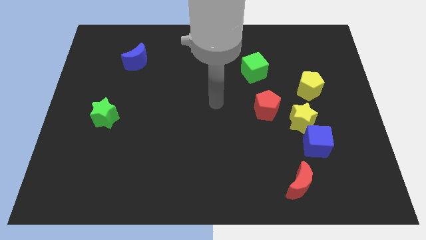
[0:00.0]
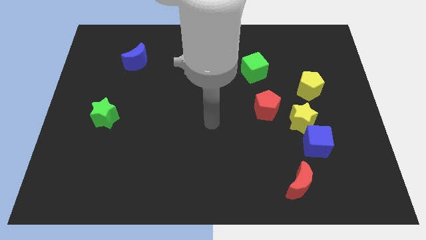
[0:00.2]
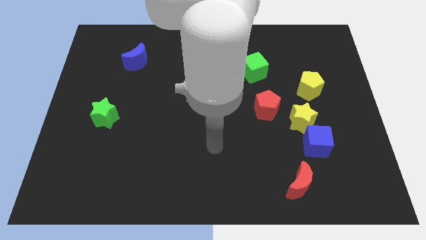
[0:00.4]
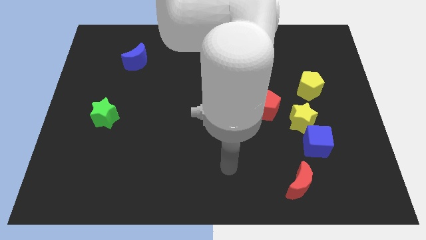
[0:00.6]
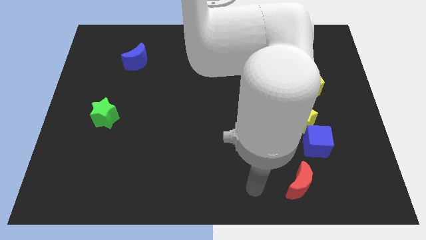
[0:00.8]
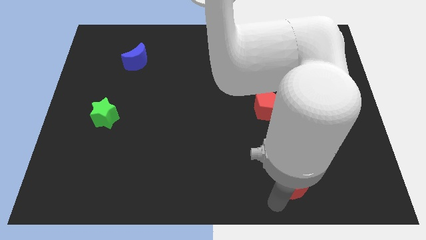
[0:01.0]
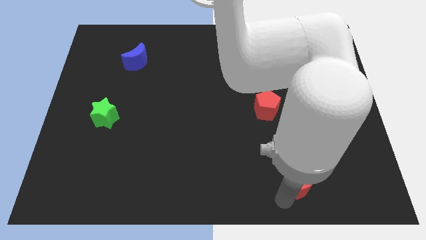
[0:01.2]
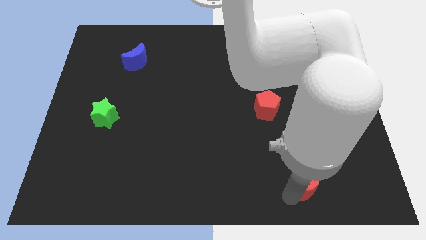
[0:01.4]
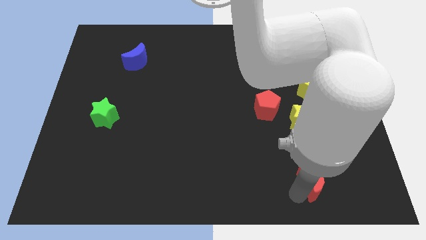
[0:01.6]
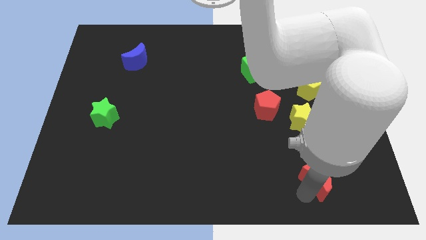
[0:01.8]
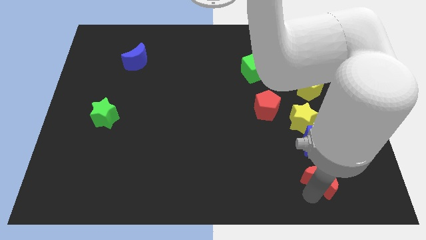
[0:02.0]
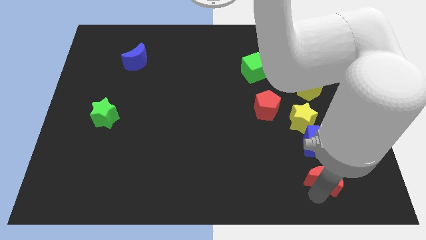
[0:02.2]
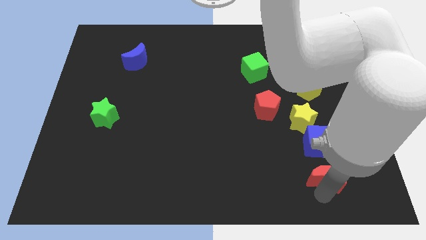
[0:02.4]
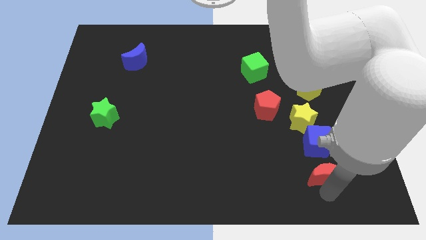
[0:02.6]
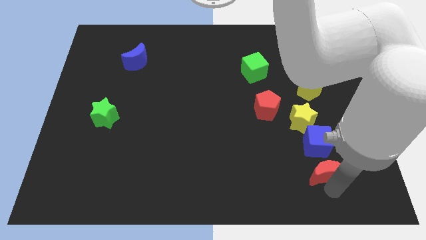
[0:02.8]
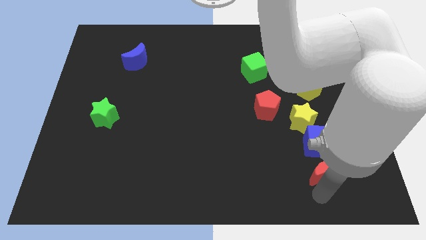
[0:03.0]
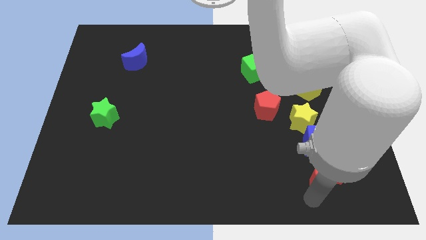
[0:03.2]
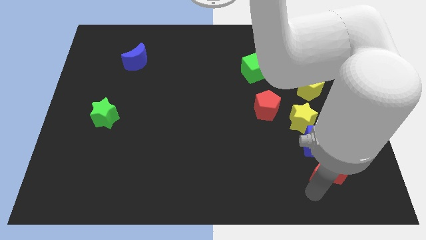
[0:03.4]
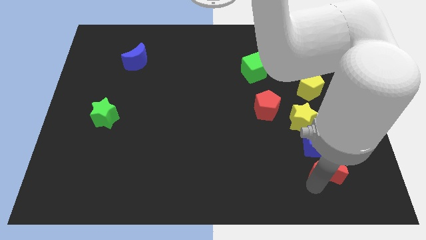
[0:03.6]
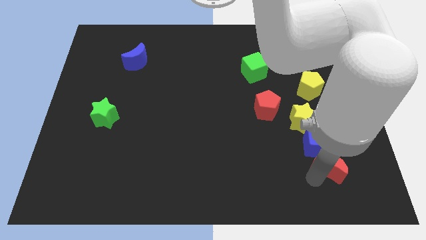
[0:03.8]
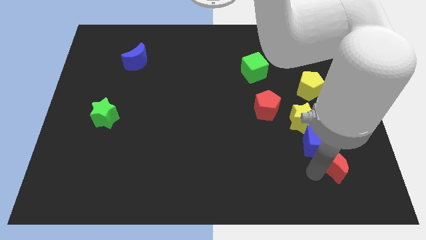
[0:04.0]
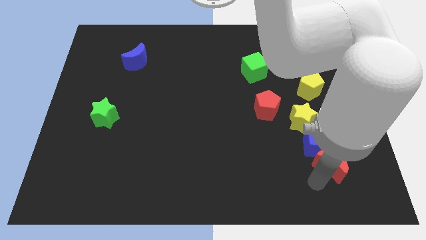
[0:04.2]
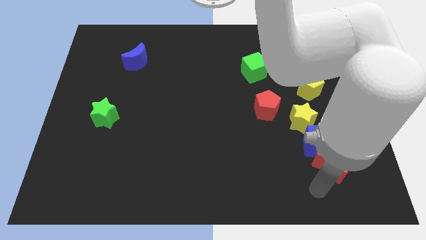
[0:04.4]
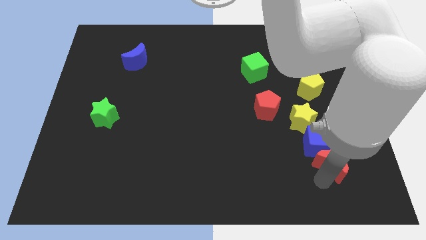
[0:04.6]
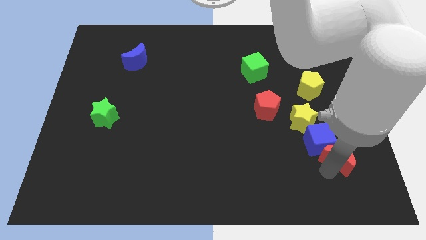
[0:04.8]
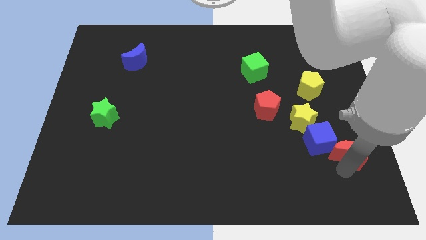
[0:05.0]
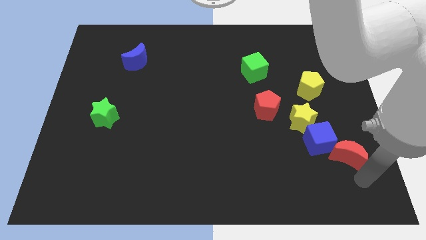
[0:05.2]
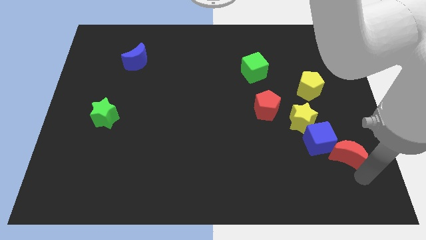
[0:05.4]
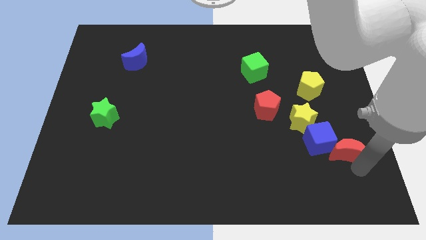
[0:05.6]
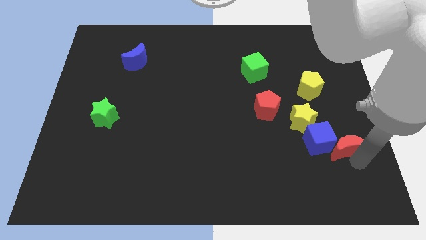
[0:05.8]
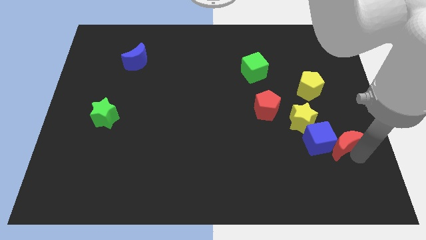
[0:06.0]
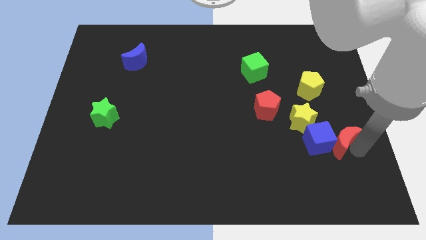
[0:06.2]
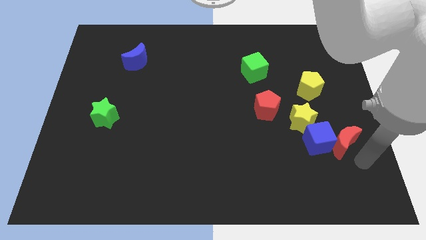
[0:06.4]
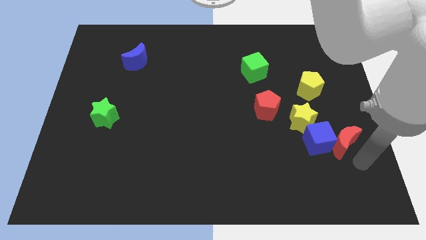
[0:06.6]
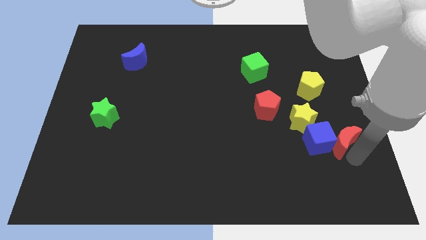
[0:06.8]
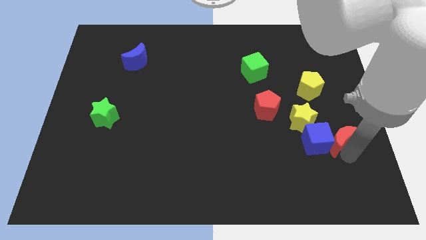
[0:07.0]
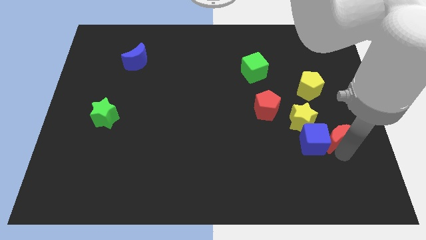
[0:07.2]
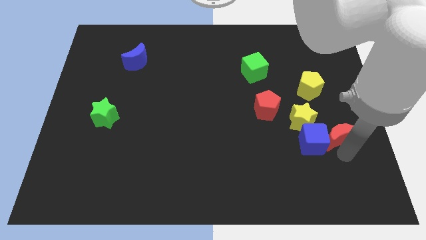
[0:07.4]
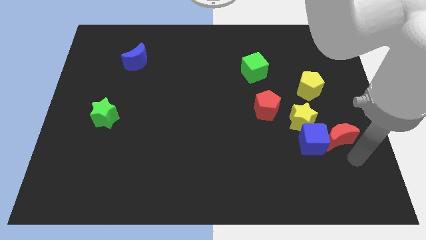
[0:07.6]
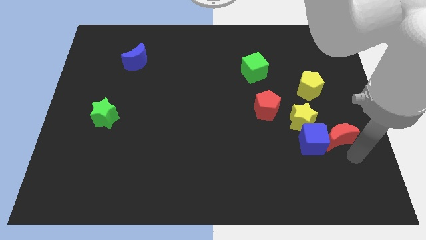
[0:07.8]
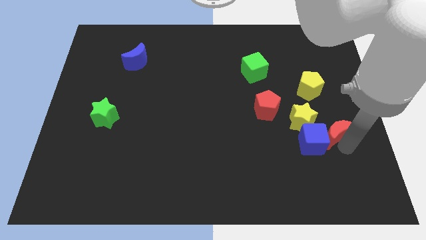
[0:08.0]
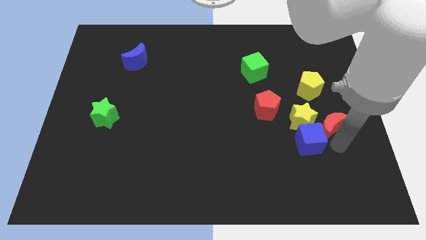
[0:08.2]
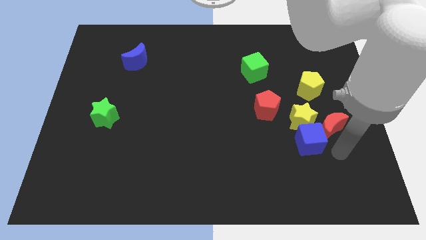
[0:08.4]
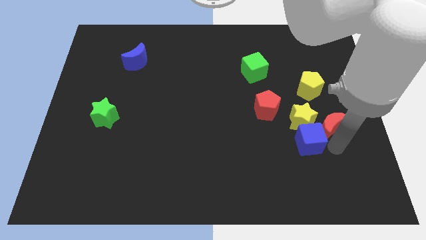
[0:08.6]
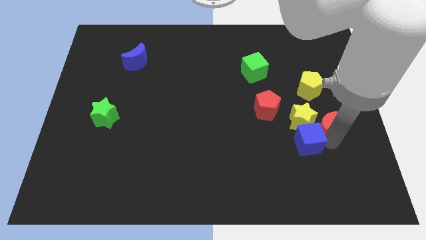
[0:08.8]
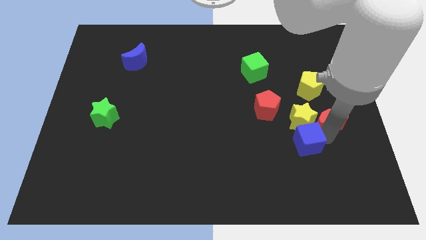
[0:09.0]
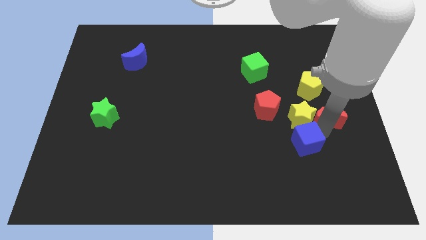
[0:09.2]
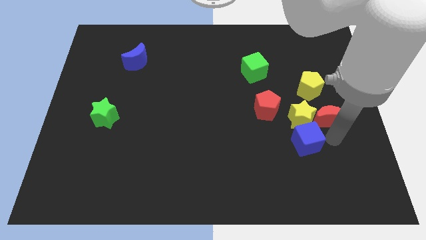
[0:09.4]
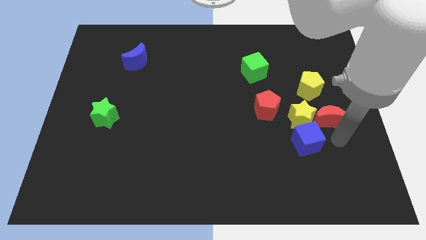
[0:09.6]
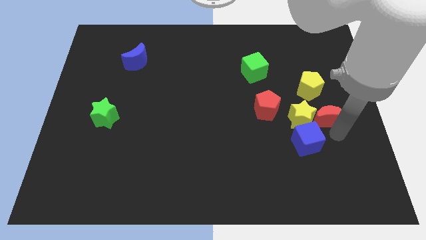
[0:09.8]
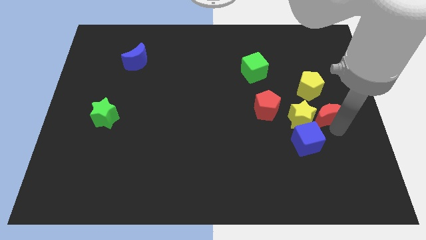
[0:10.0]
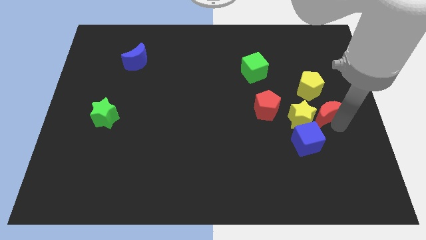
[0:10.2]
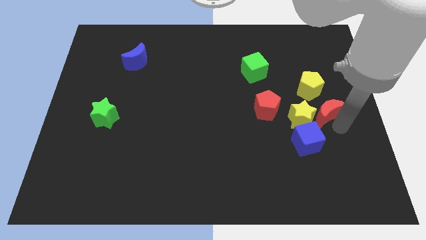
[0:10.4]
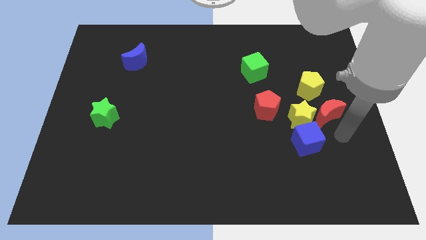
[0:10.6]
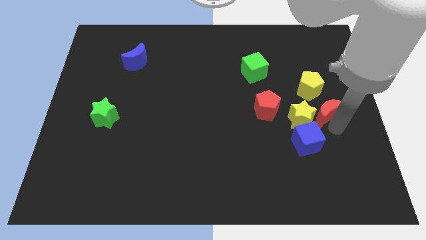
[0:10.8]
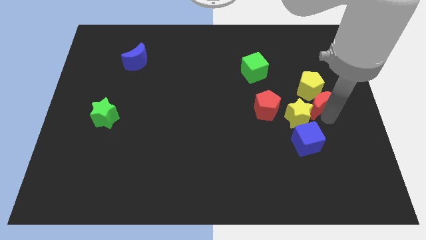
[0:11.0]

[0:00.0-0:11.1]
move the red moon next to the yellow pentagon

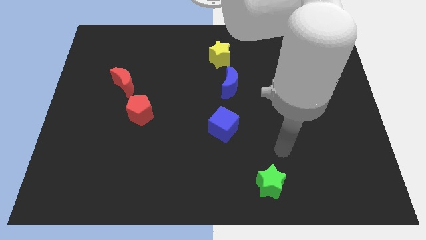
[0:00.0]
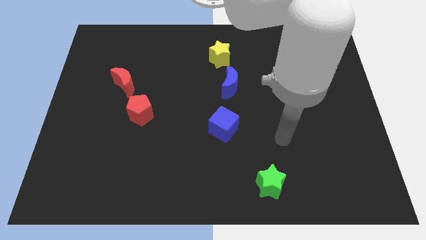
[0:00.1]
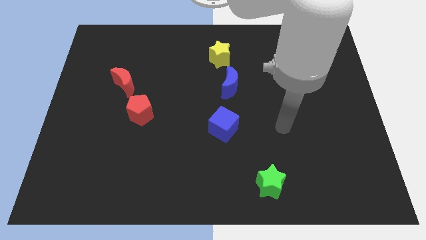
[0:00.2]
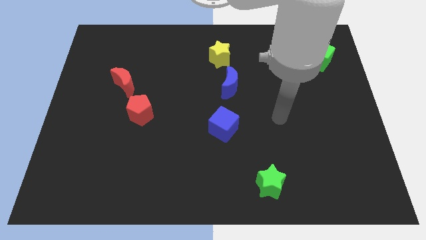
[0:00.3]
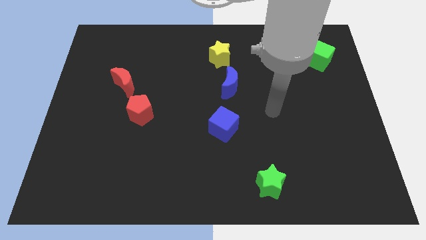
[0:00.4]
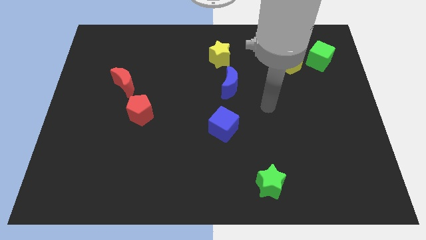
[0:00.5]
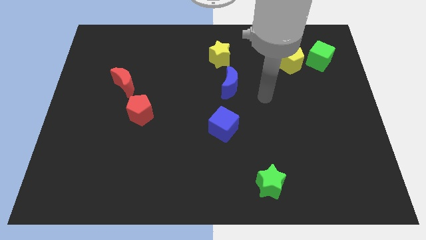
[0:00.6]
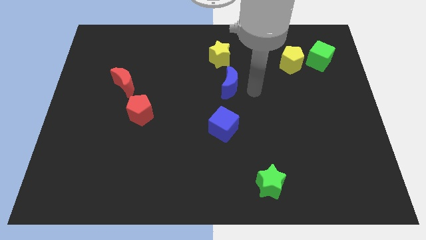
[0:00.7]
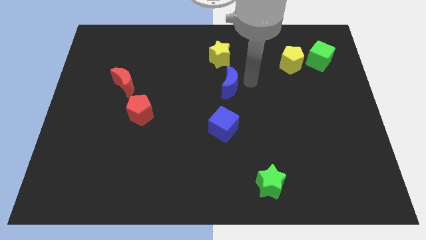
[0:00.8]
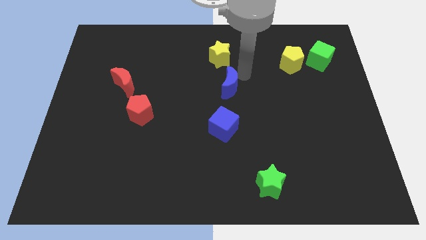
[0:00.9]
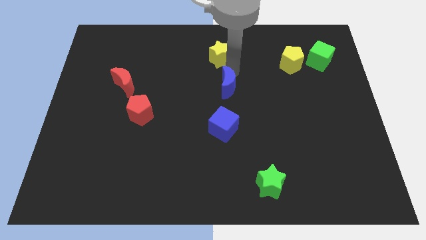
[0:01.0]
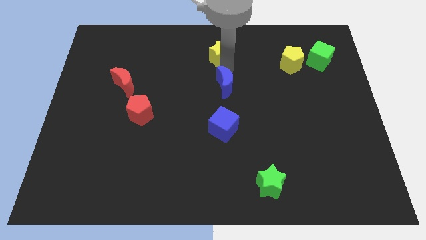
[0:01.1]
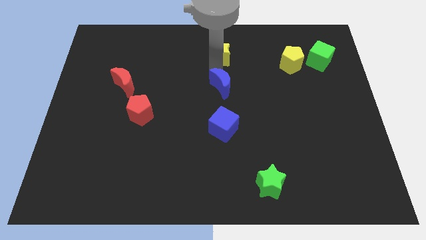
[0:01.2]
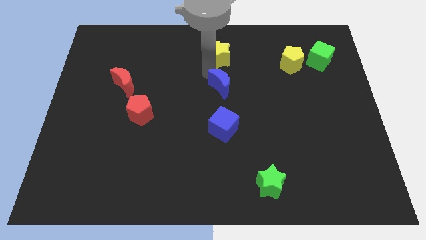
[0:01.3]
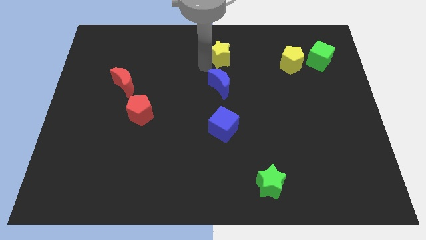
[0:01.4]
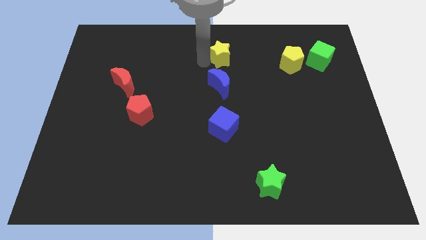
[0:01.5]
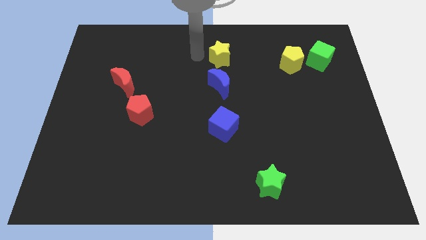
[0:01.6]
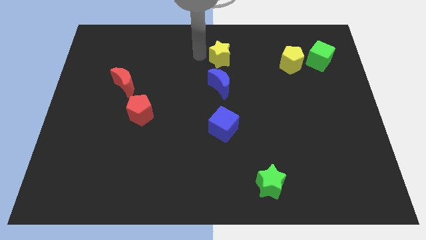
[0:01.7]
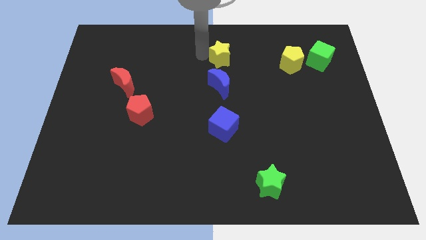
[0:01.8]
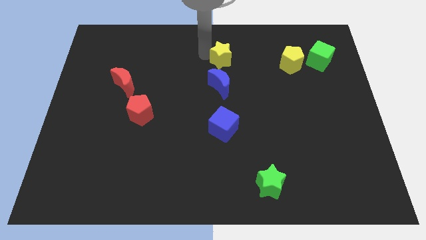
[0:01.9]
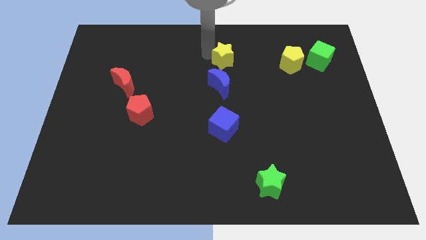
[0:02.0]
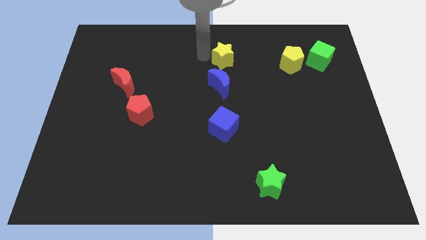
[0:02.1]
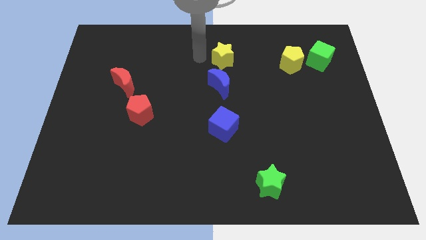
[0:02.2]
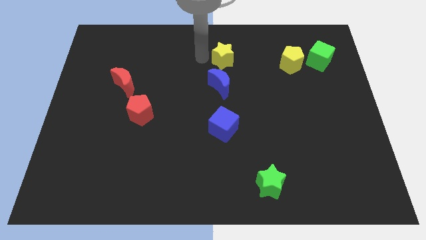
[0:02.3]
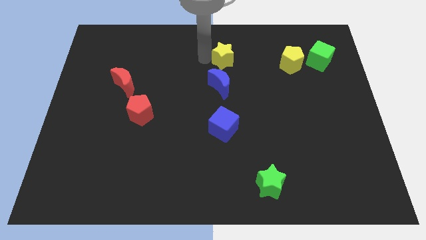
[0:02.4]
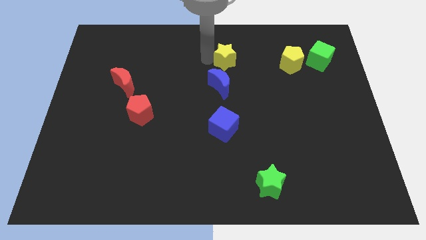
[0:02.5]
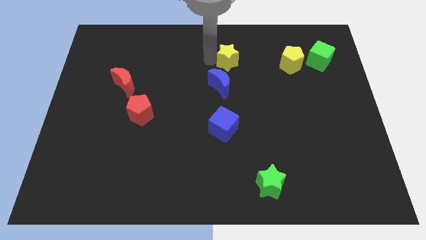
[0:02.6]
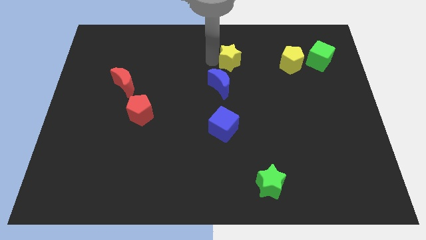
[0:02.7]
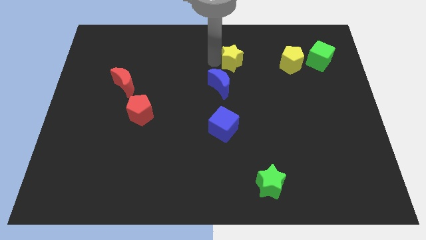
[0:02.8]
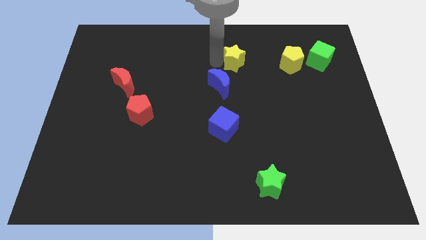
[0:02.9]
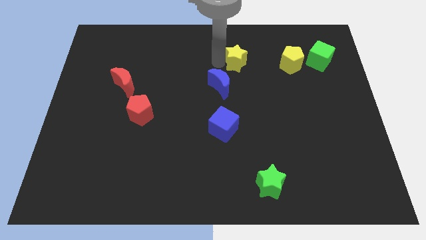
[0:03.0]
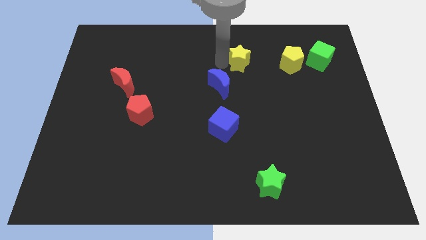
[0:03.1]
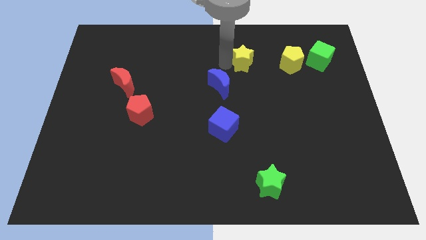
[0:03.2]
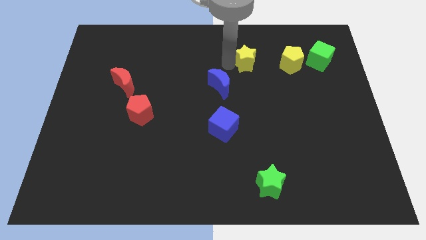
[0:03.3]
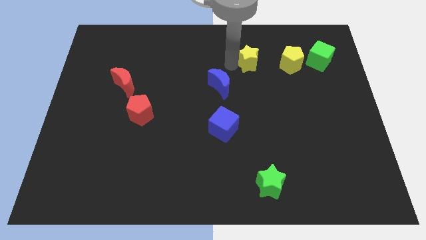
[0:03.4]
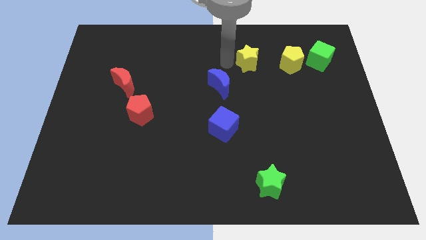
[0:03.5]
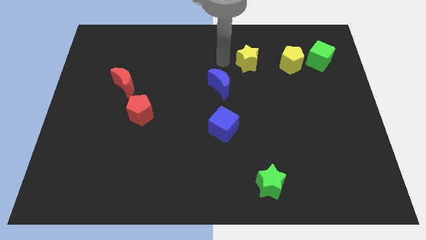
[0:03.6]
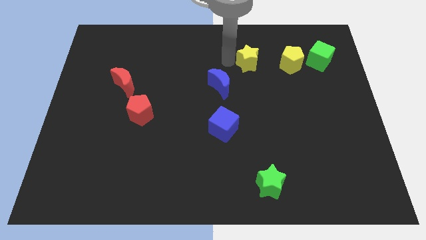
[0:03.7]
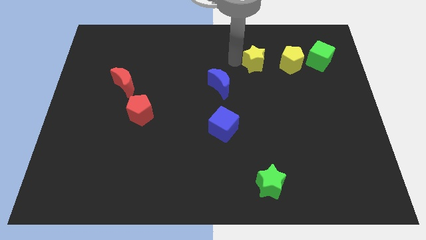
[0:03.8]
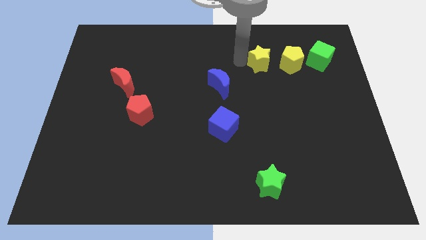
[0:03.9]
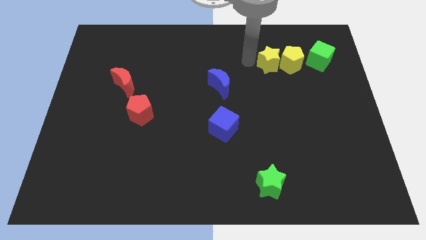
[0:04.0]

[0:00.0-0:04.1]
push the yellow star close to the yellow pentagon
